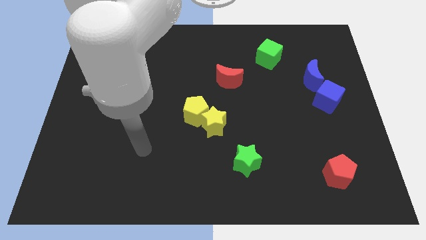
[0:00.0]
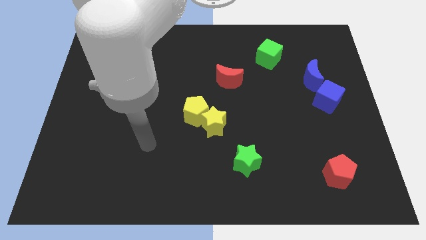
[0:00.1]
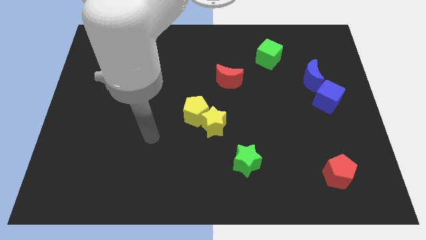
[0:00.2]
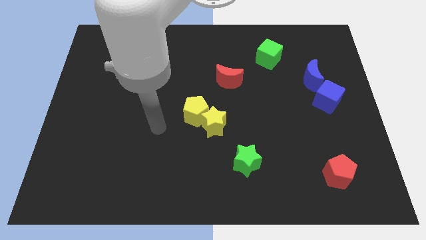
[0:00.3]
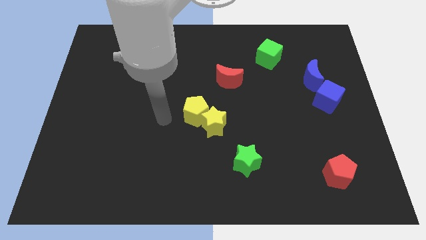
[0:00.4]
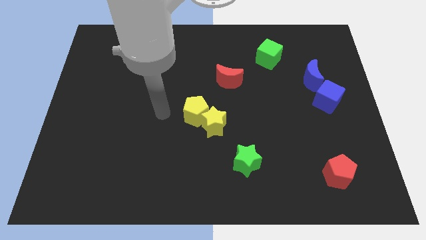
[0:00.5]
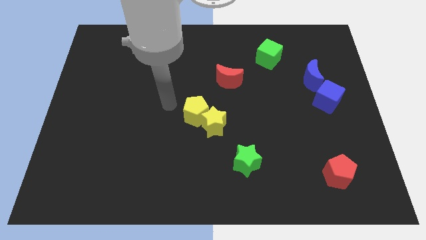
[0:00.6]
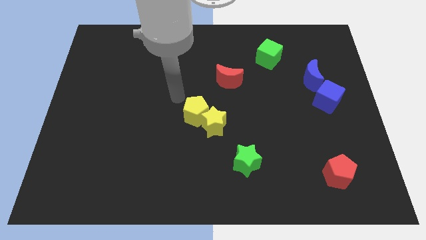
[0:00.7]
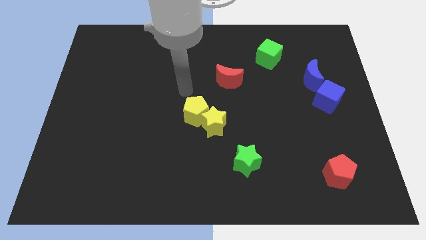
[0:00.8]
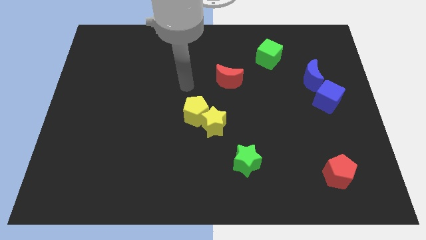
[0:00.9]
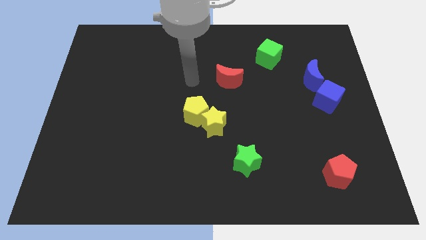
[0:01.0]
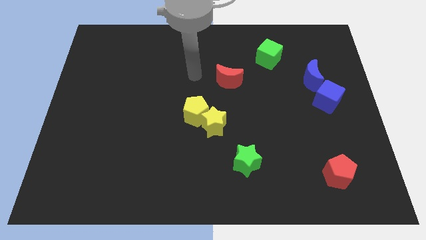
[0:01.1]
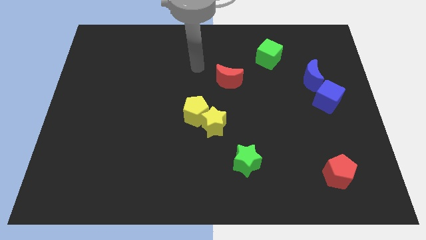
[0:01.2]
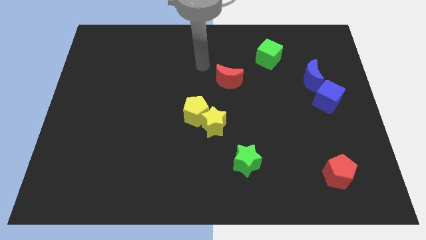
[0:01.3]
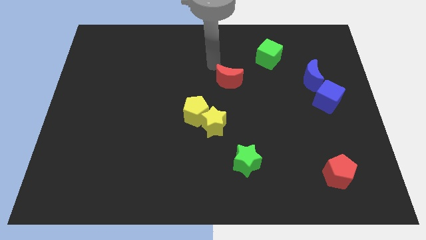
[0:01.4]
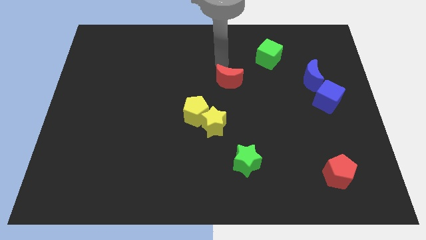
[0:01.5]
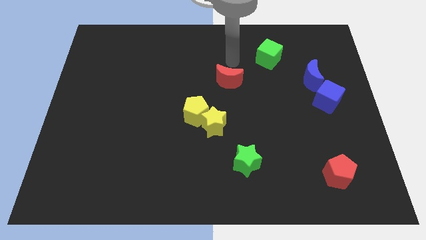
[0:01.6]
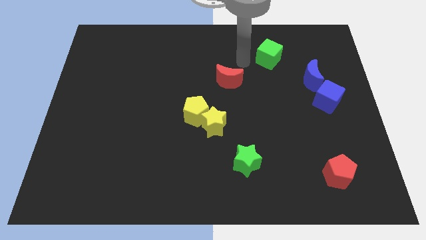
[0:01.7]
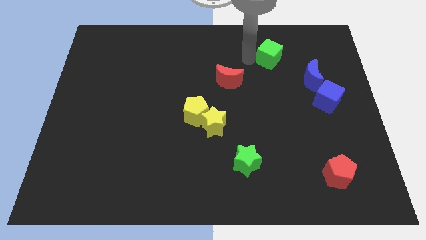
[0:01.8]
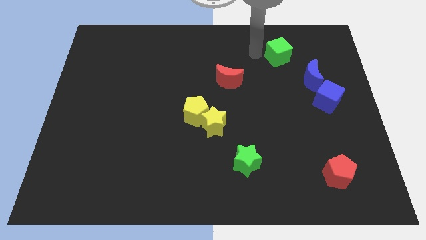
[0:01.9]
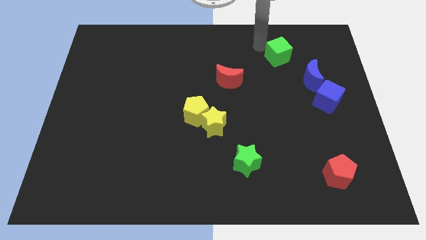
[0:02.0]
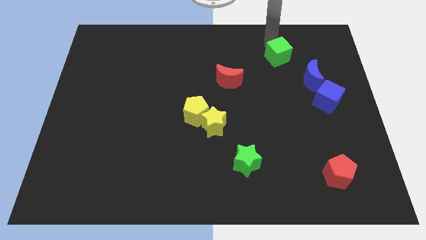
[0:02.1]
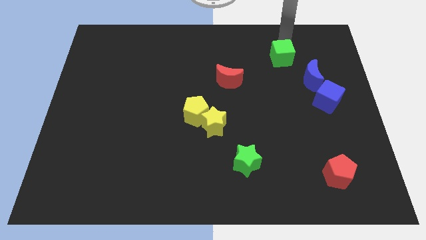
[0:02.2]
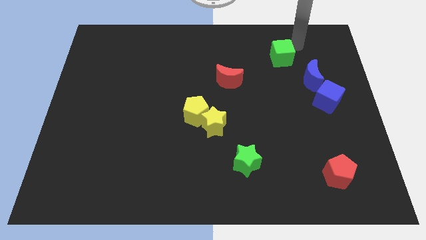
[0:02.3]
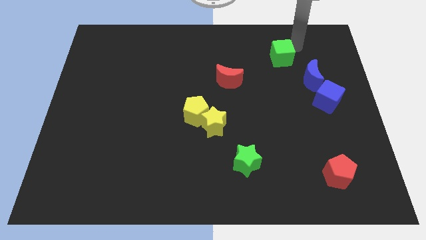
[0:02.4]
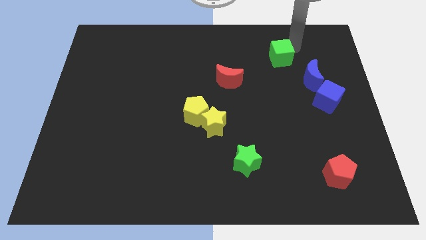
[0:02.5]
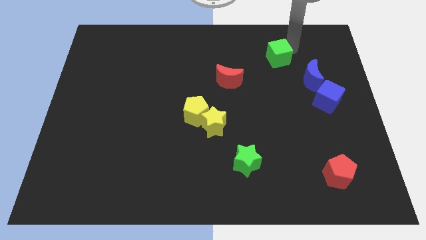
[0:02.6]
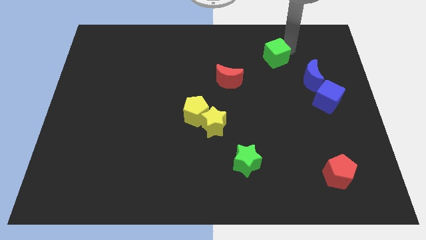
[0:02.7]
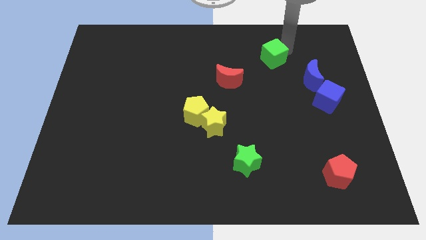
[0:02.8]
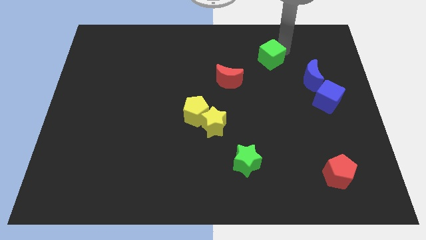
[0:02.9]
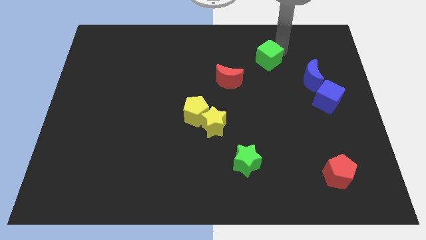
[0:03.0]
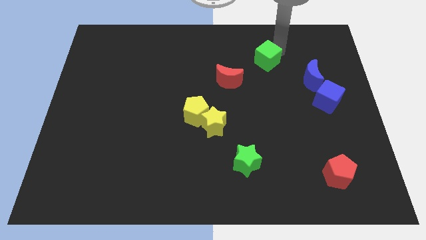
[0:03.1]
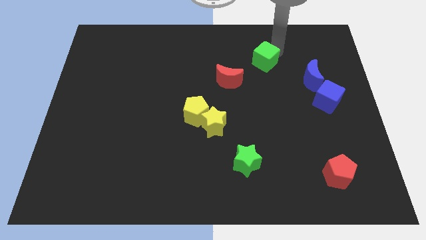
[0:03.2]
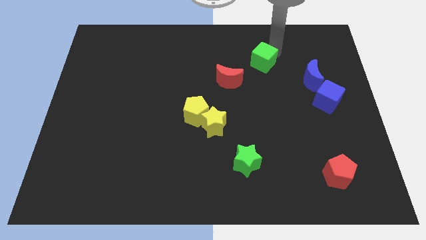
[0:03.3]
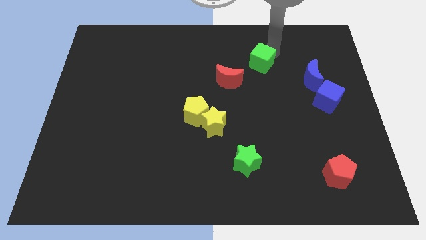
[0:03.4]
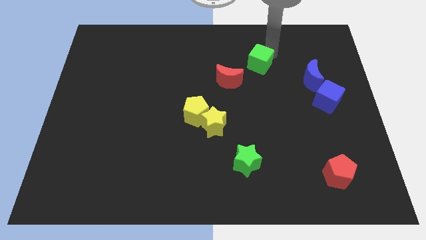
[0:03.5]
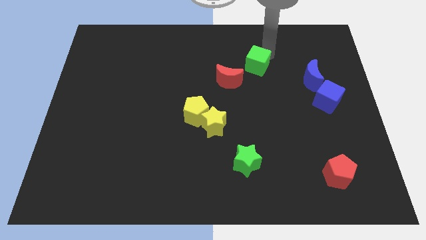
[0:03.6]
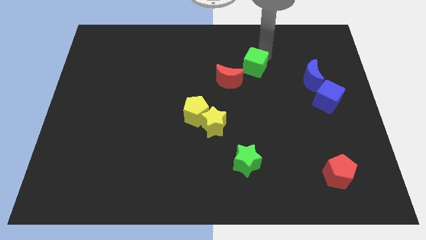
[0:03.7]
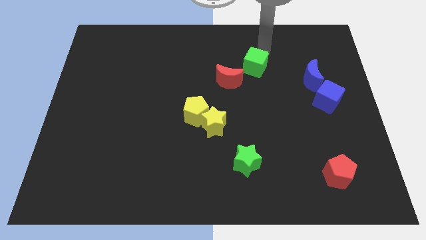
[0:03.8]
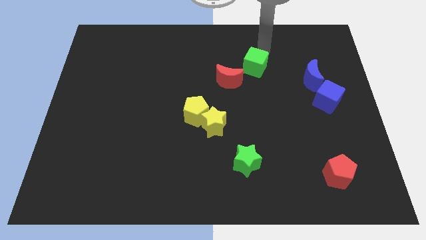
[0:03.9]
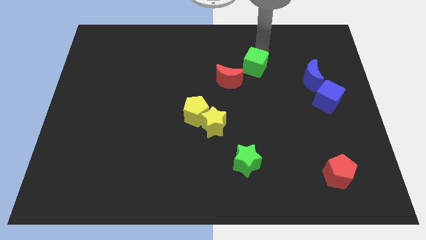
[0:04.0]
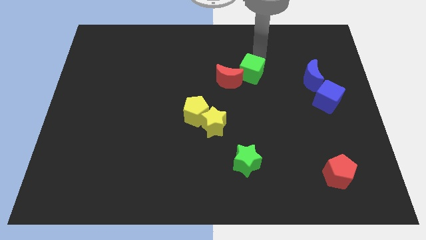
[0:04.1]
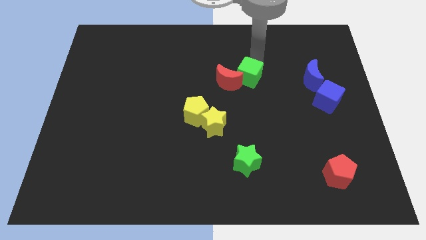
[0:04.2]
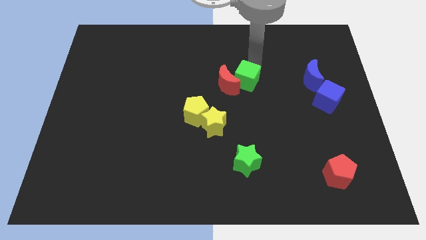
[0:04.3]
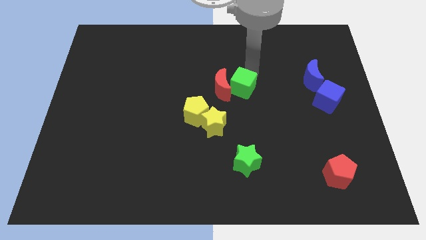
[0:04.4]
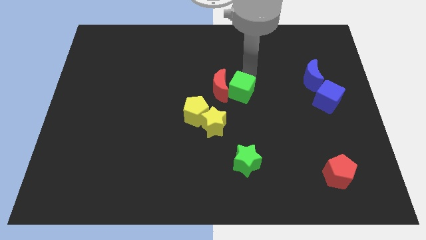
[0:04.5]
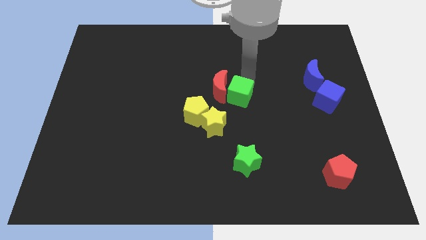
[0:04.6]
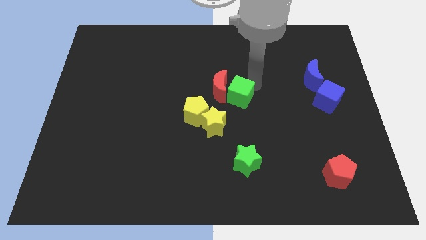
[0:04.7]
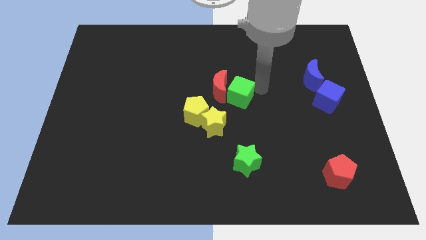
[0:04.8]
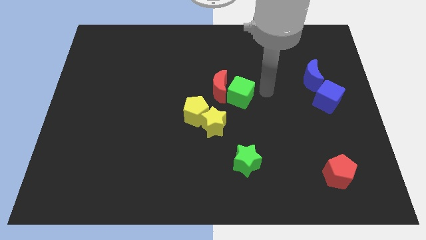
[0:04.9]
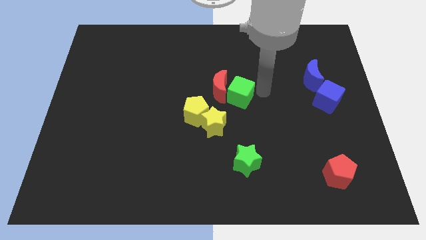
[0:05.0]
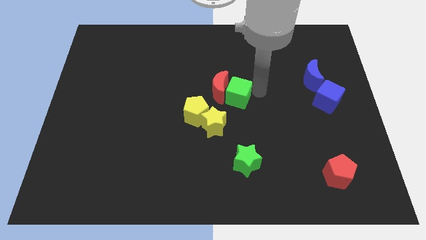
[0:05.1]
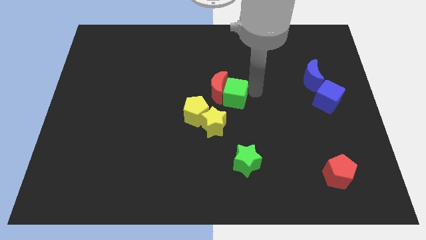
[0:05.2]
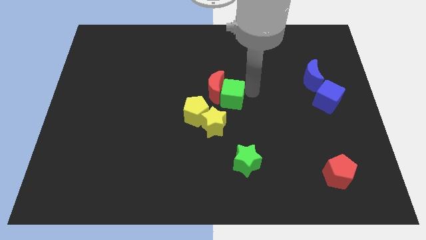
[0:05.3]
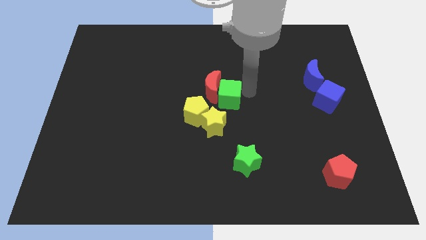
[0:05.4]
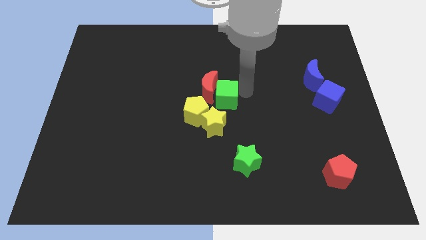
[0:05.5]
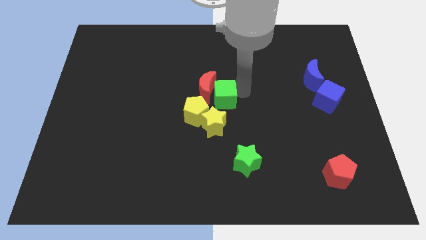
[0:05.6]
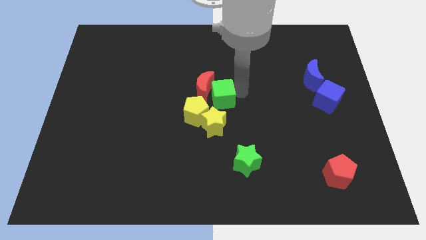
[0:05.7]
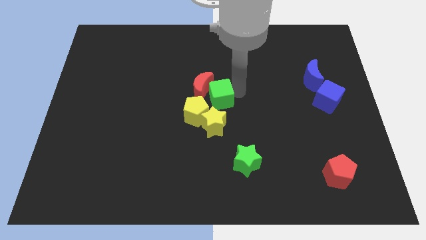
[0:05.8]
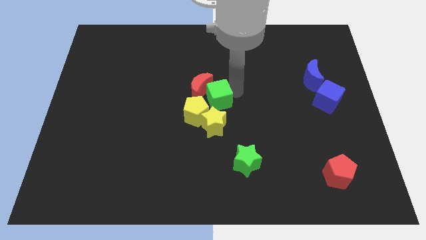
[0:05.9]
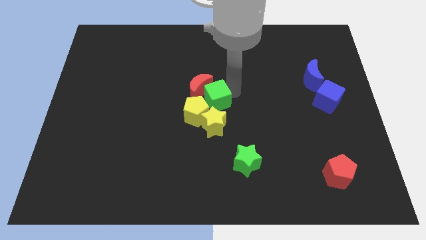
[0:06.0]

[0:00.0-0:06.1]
move the green cube downwards and left diagonally

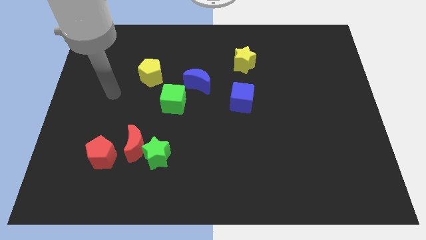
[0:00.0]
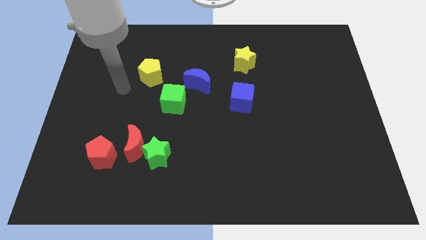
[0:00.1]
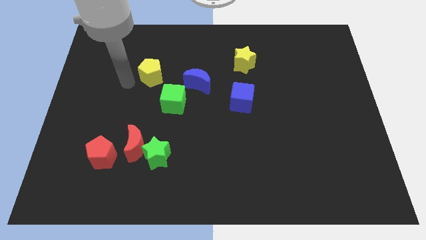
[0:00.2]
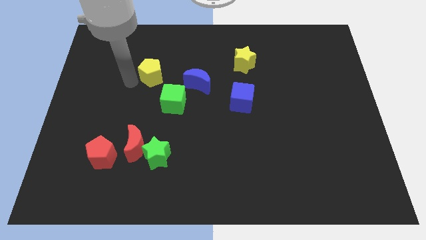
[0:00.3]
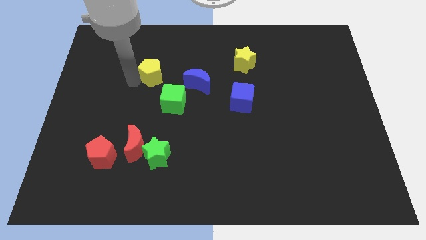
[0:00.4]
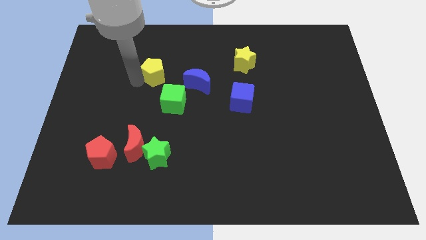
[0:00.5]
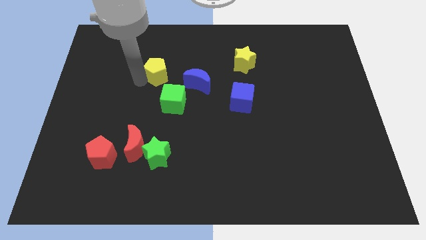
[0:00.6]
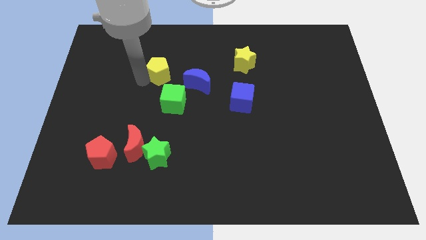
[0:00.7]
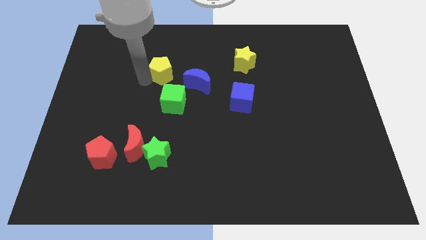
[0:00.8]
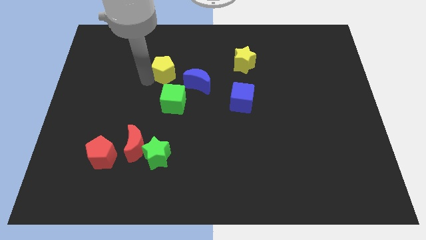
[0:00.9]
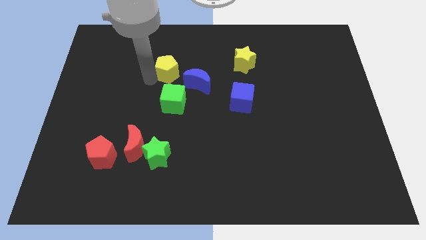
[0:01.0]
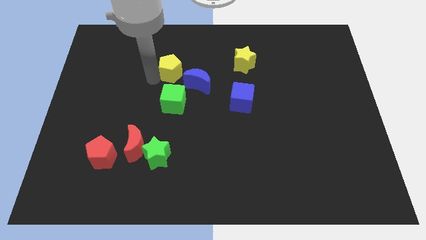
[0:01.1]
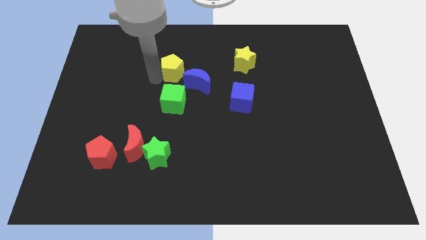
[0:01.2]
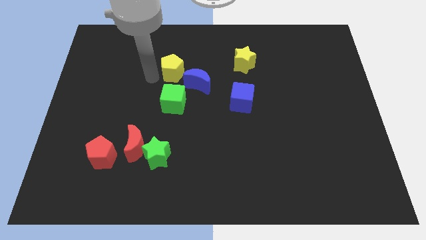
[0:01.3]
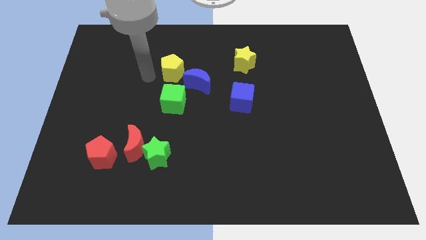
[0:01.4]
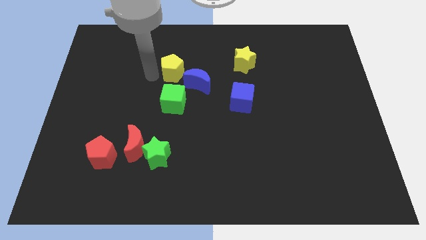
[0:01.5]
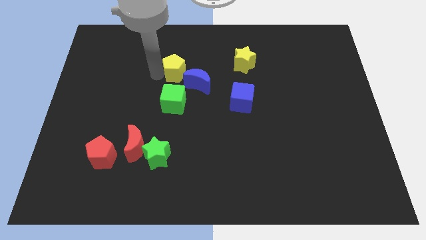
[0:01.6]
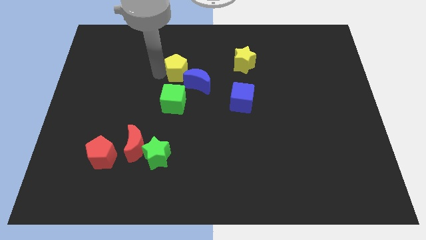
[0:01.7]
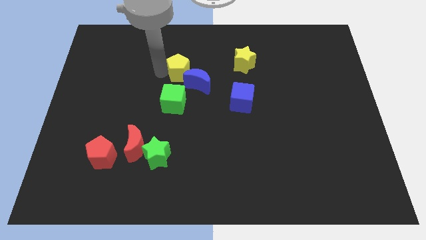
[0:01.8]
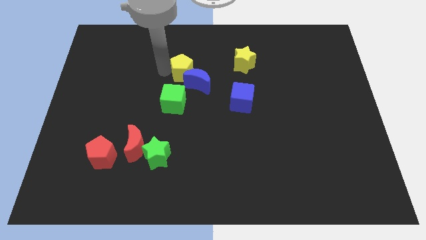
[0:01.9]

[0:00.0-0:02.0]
move the yellow pentagon slightly to the right

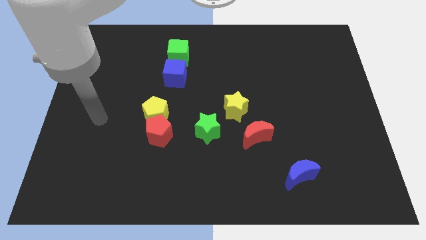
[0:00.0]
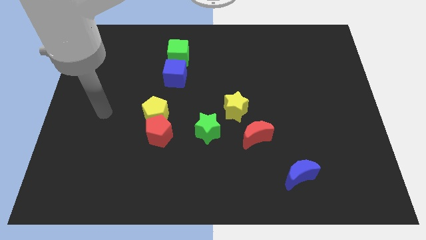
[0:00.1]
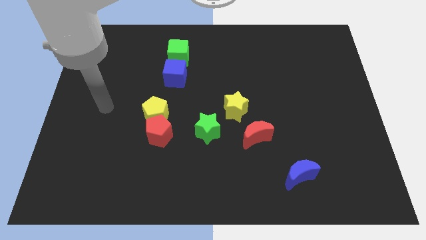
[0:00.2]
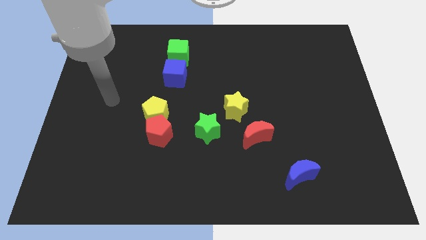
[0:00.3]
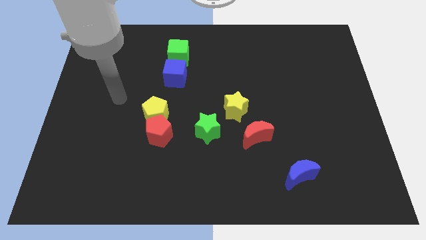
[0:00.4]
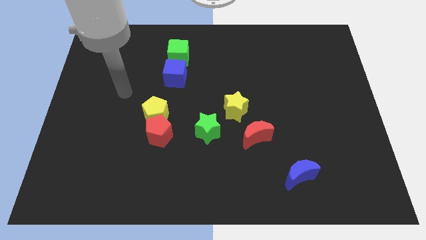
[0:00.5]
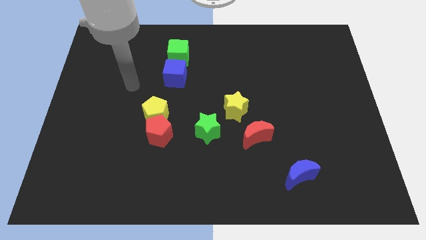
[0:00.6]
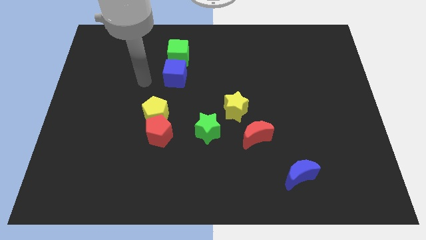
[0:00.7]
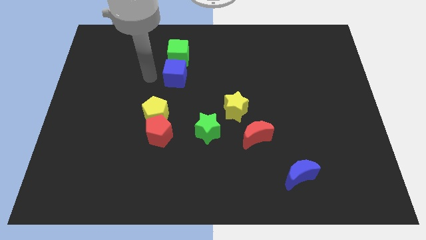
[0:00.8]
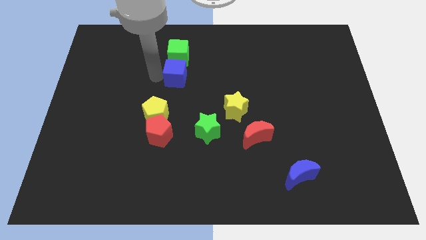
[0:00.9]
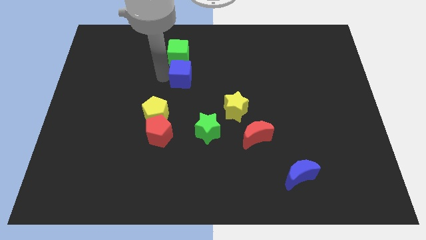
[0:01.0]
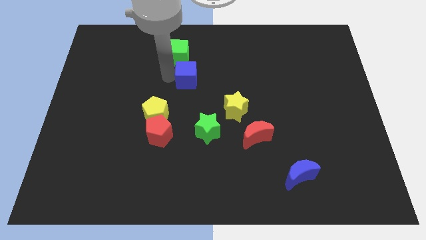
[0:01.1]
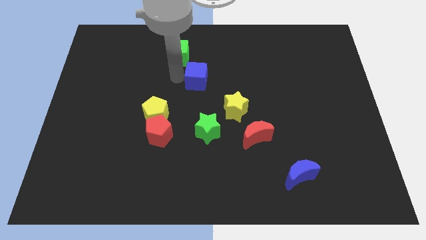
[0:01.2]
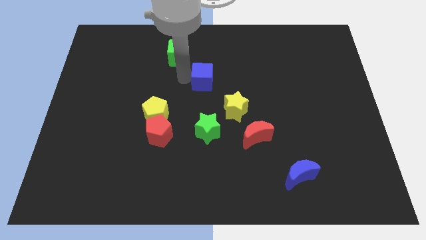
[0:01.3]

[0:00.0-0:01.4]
slightly slide the blue cube right
